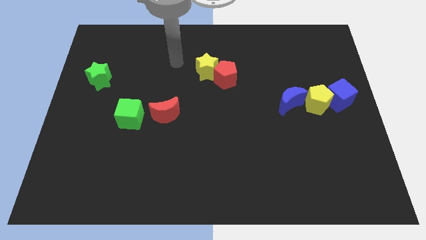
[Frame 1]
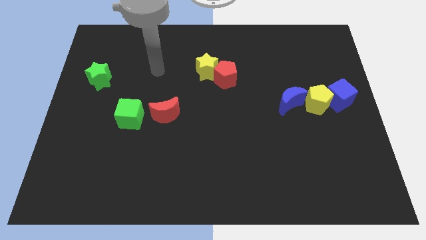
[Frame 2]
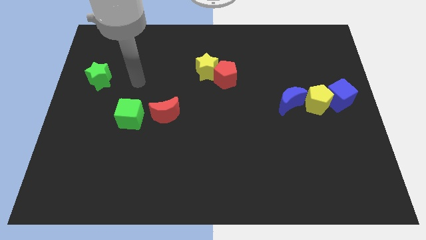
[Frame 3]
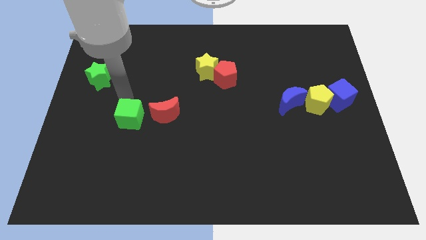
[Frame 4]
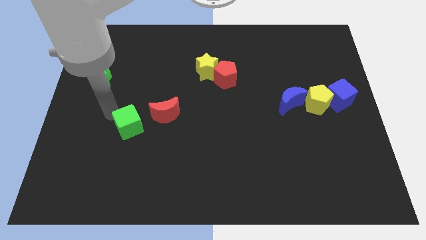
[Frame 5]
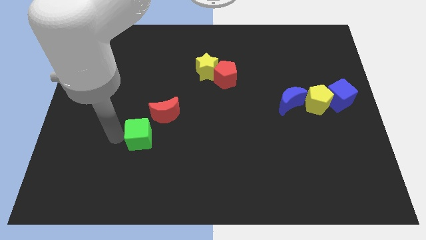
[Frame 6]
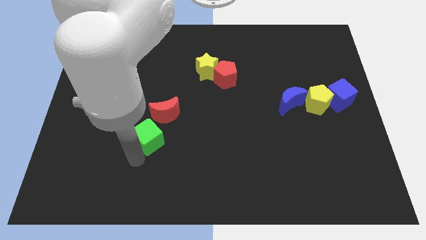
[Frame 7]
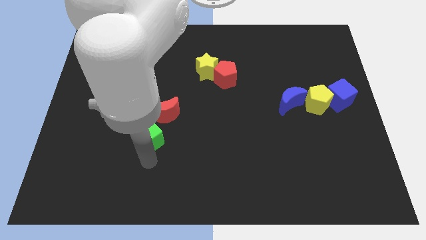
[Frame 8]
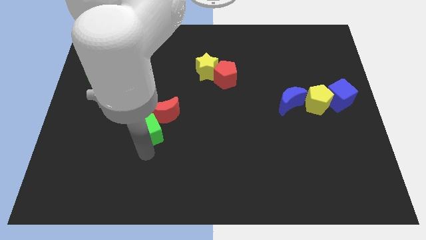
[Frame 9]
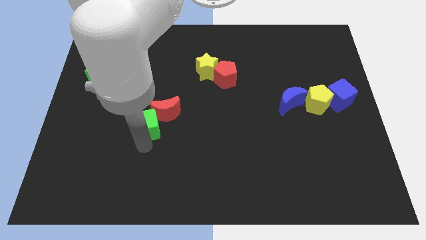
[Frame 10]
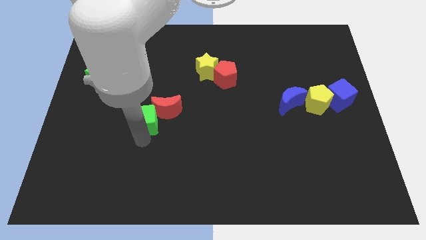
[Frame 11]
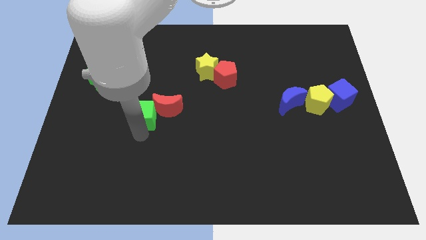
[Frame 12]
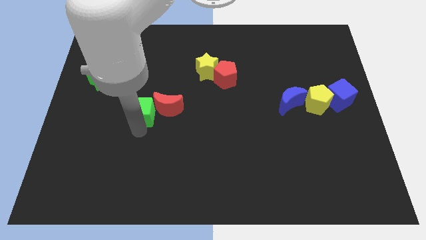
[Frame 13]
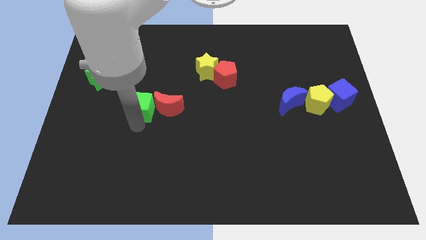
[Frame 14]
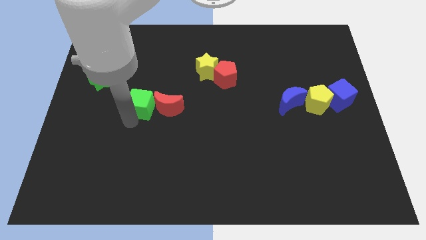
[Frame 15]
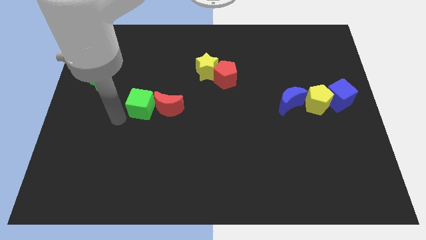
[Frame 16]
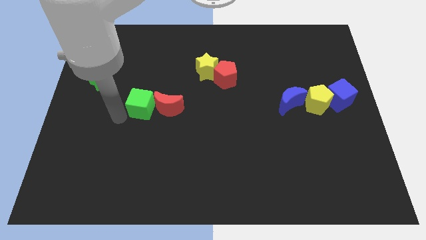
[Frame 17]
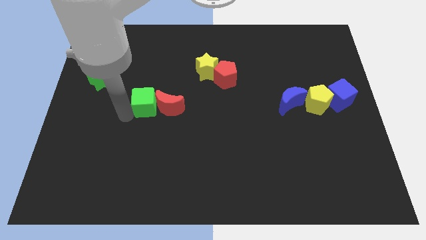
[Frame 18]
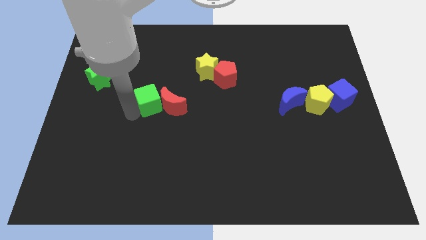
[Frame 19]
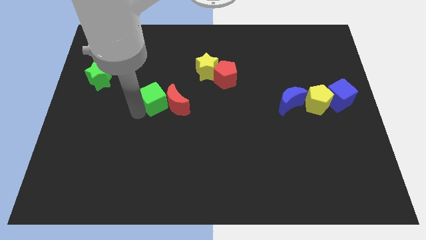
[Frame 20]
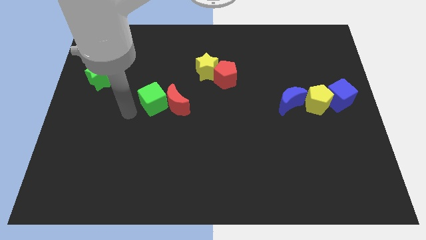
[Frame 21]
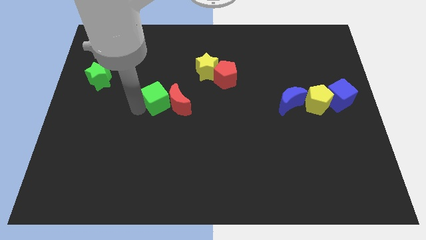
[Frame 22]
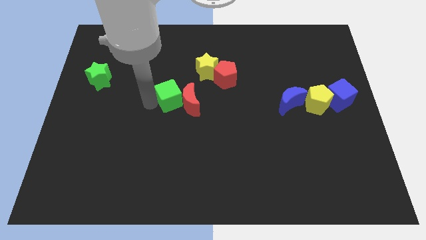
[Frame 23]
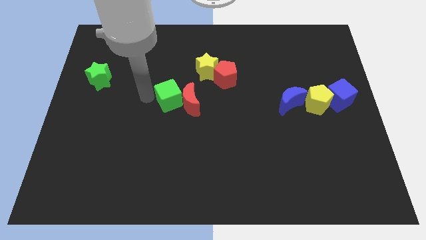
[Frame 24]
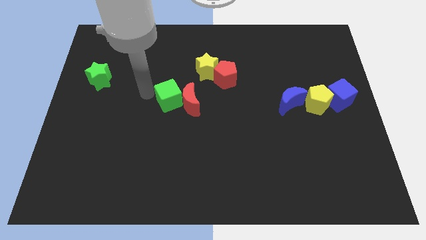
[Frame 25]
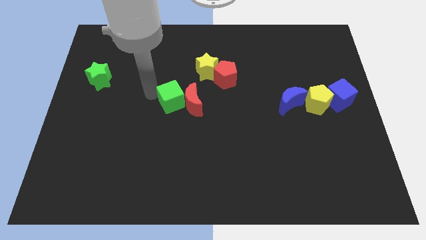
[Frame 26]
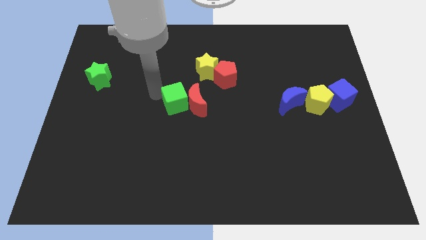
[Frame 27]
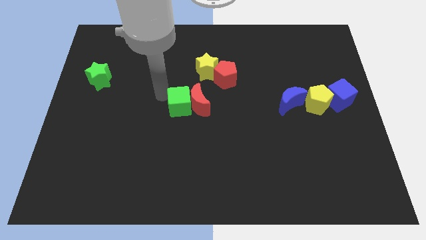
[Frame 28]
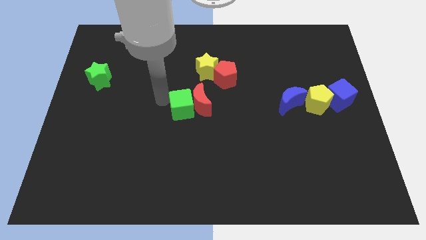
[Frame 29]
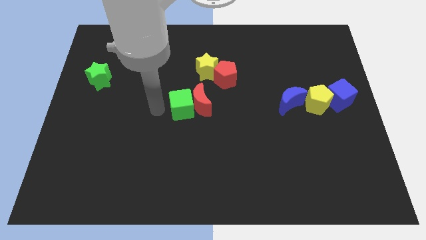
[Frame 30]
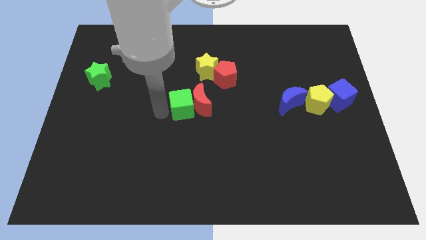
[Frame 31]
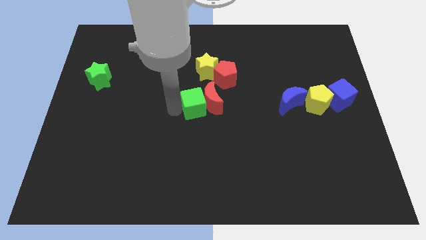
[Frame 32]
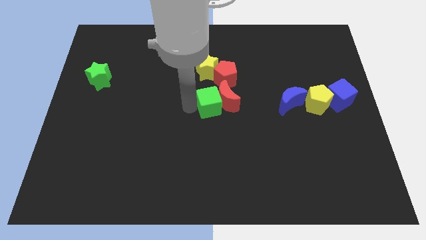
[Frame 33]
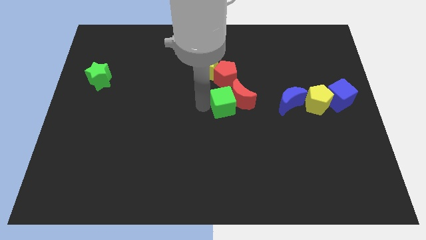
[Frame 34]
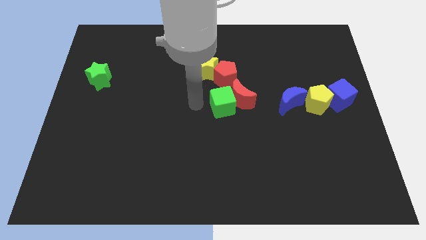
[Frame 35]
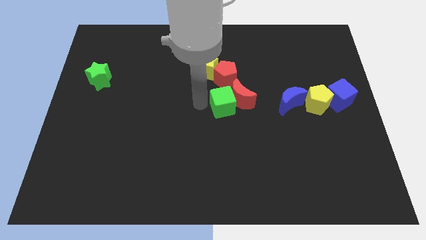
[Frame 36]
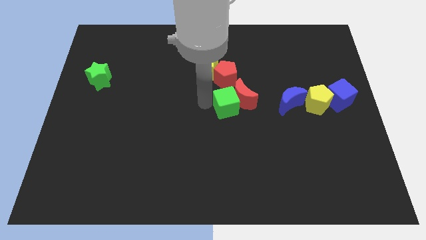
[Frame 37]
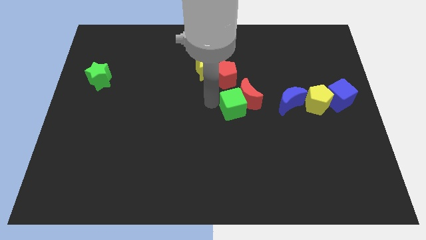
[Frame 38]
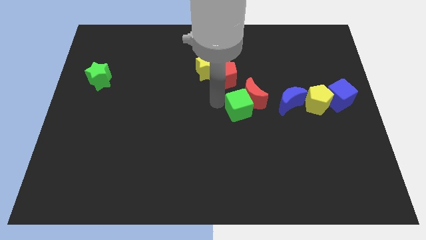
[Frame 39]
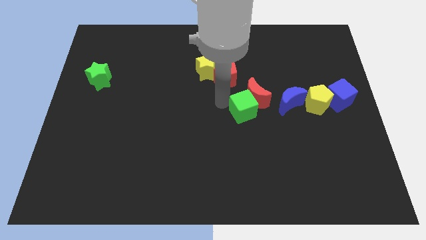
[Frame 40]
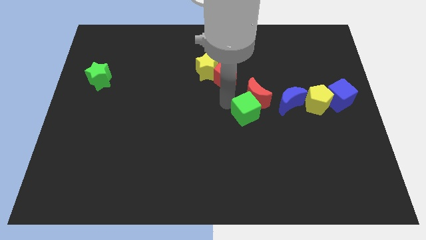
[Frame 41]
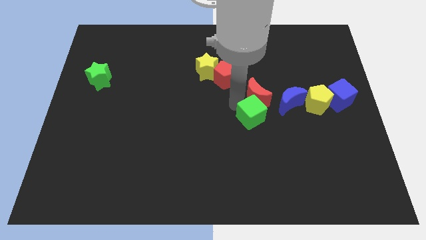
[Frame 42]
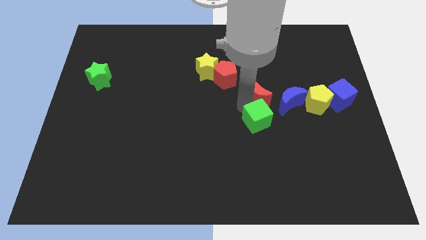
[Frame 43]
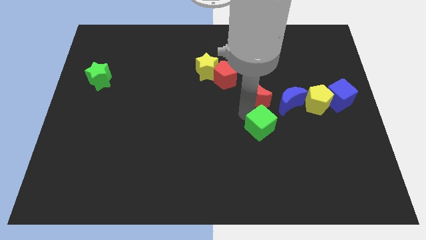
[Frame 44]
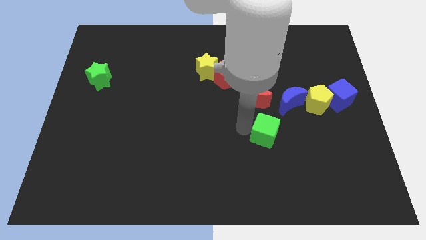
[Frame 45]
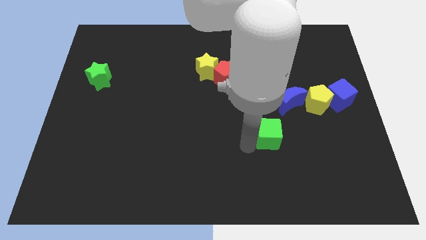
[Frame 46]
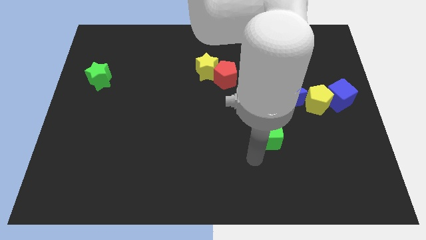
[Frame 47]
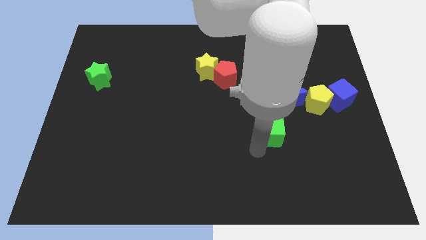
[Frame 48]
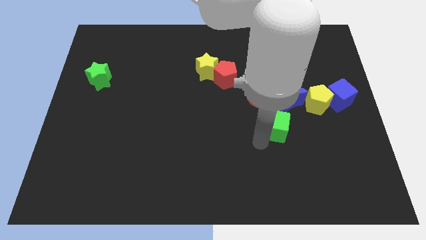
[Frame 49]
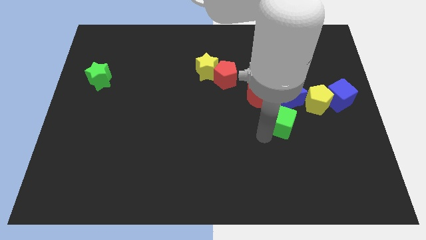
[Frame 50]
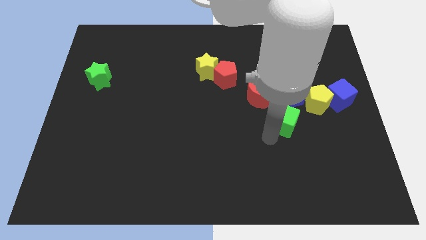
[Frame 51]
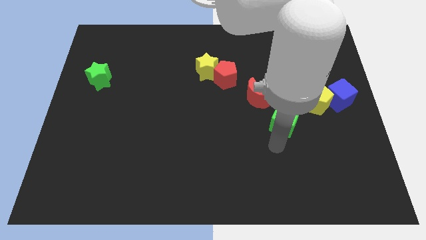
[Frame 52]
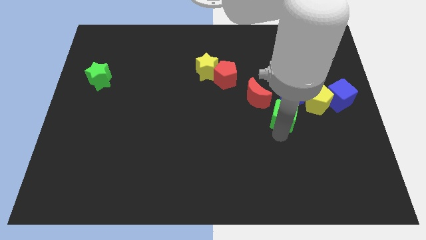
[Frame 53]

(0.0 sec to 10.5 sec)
move the green cube towards the blue moon

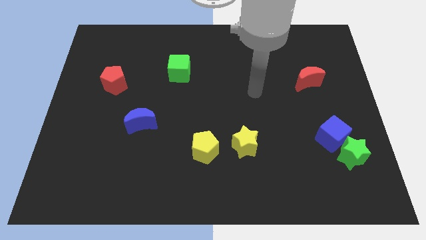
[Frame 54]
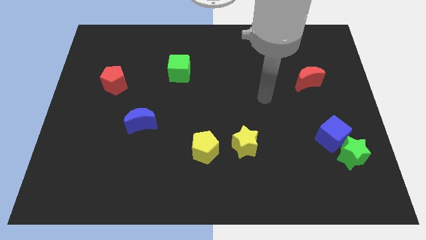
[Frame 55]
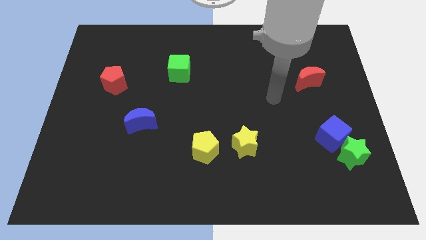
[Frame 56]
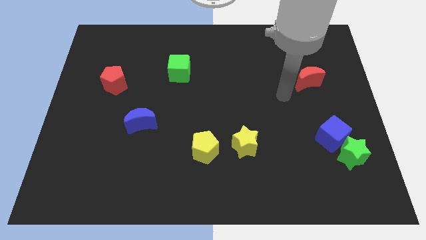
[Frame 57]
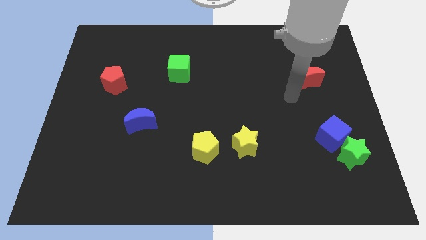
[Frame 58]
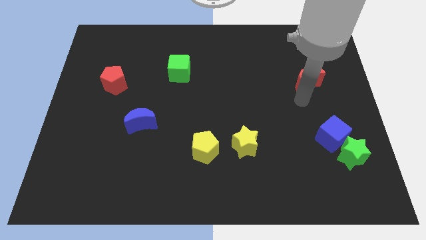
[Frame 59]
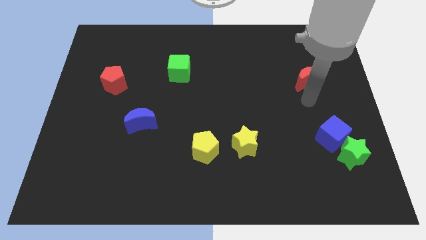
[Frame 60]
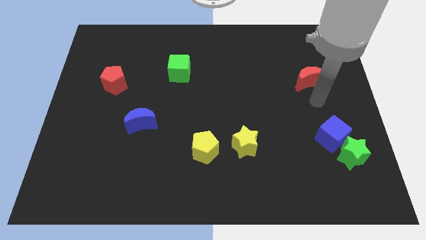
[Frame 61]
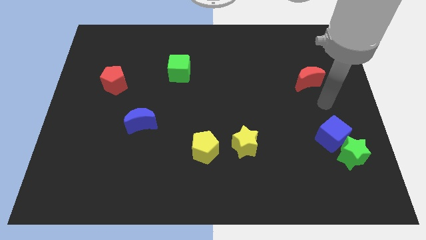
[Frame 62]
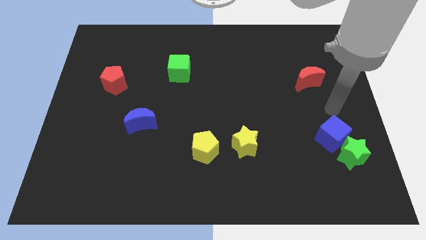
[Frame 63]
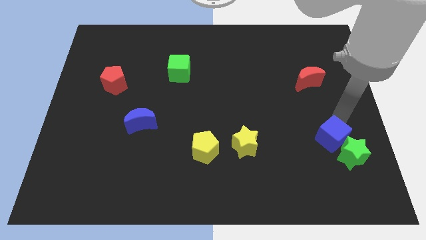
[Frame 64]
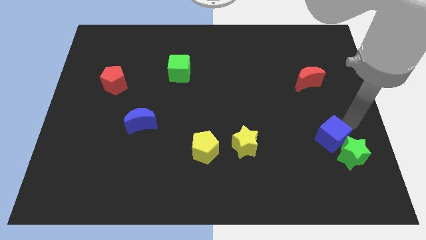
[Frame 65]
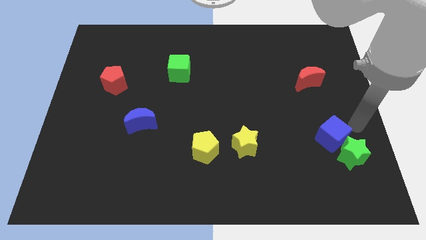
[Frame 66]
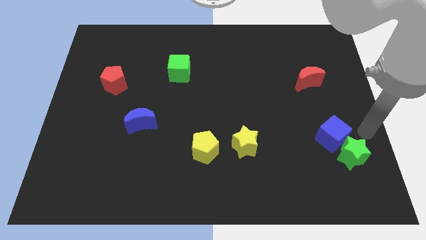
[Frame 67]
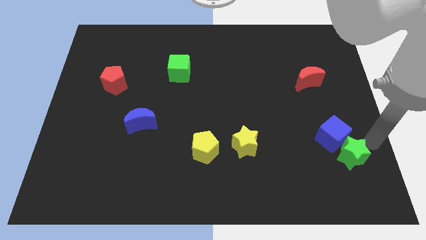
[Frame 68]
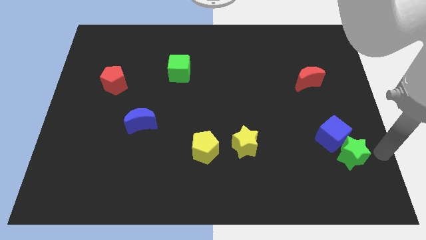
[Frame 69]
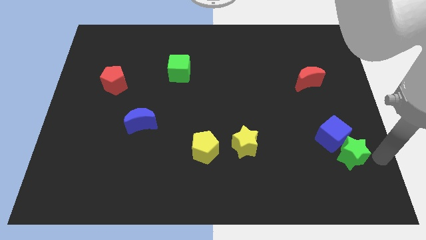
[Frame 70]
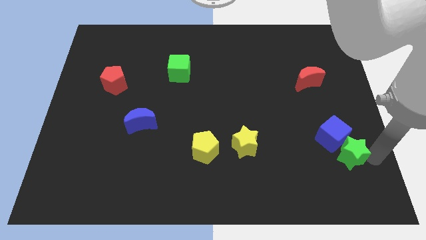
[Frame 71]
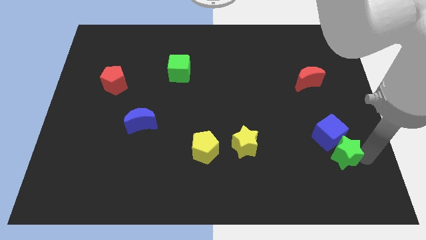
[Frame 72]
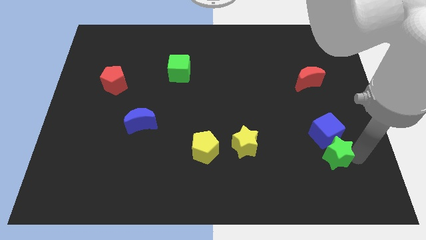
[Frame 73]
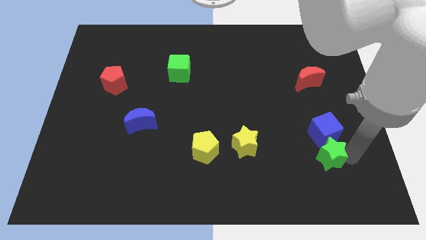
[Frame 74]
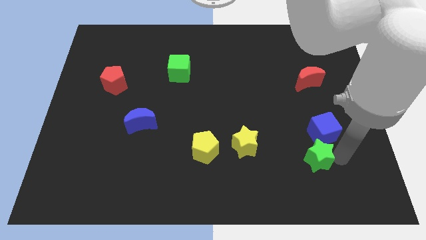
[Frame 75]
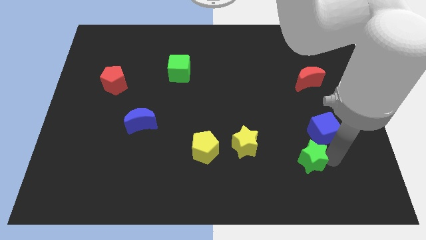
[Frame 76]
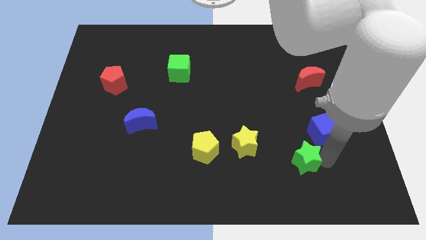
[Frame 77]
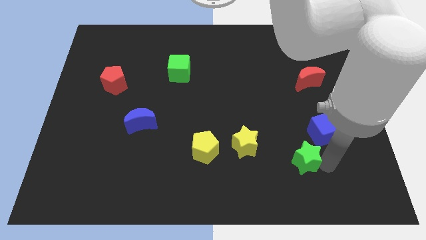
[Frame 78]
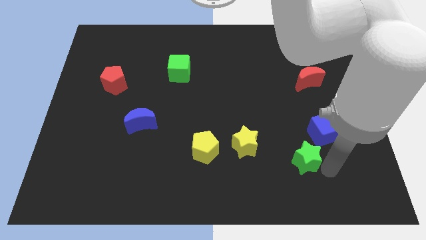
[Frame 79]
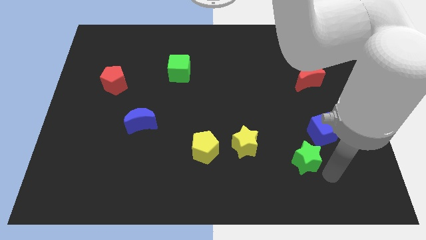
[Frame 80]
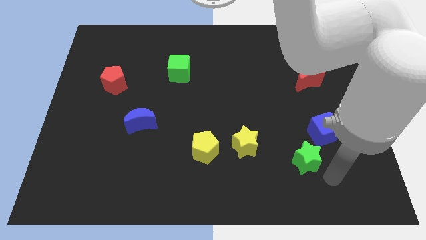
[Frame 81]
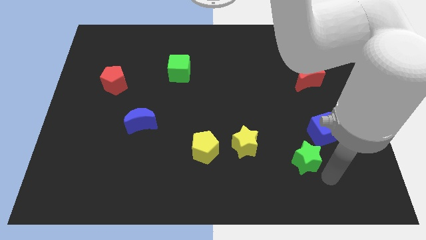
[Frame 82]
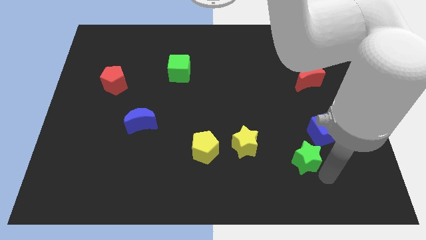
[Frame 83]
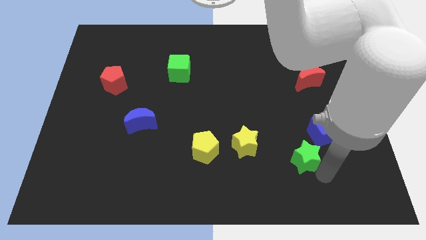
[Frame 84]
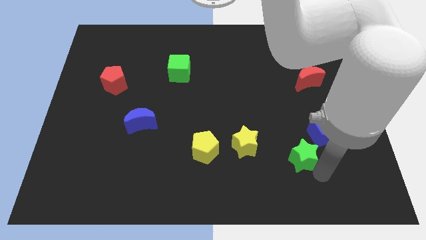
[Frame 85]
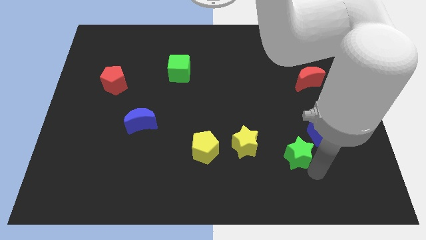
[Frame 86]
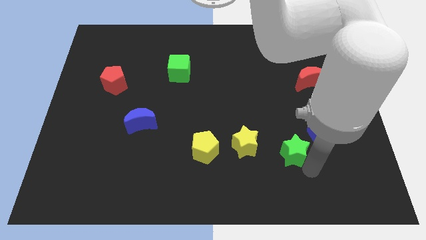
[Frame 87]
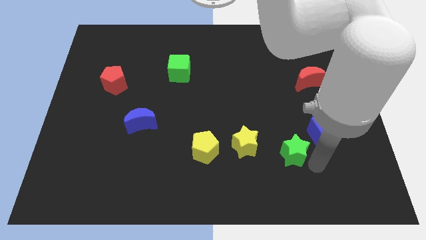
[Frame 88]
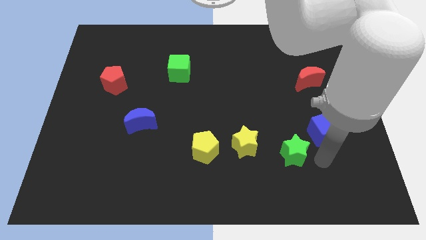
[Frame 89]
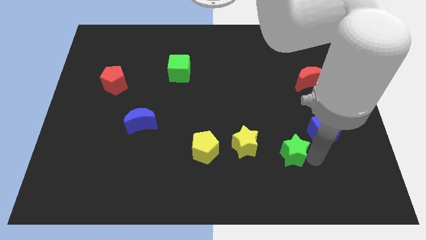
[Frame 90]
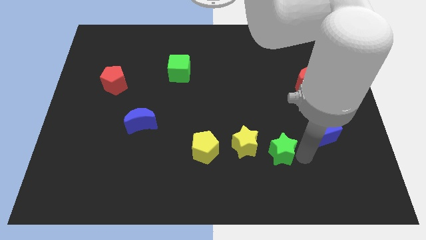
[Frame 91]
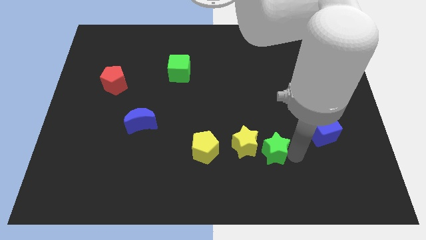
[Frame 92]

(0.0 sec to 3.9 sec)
slide the green star next to the yellow star
